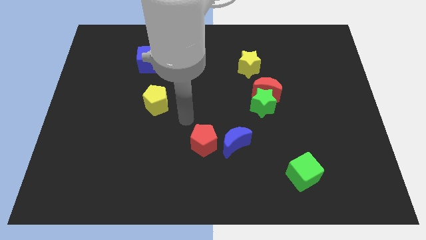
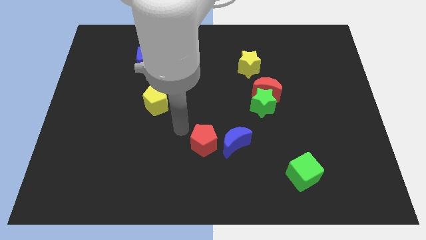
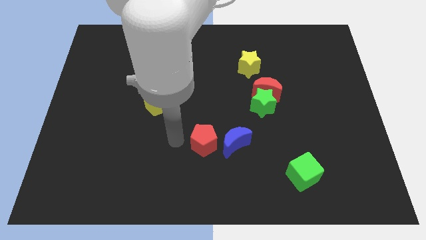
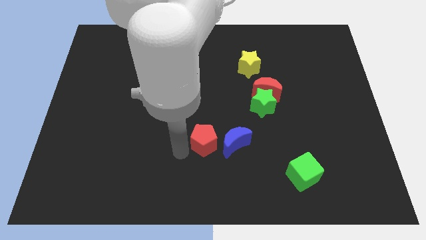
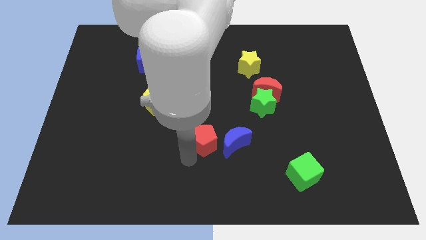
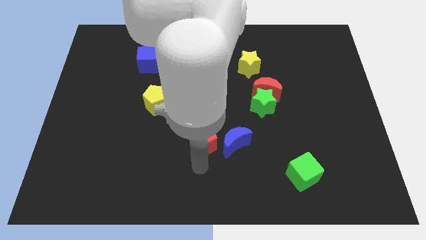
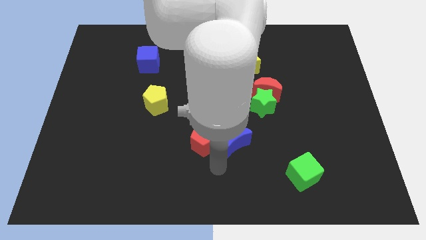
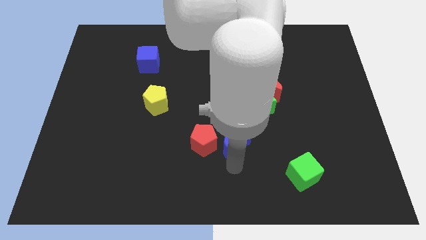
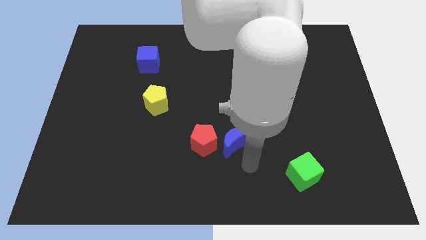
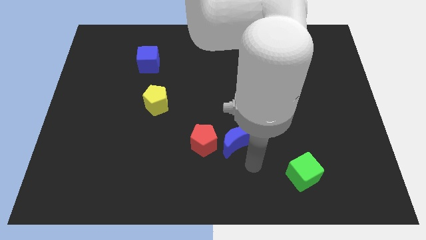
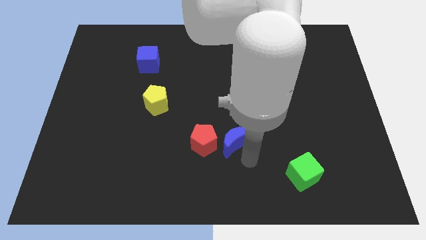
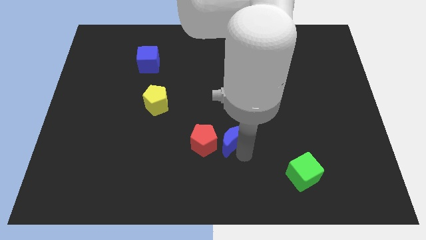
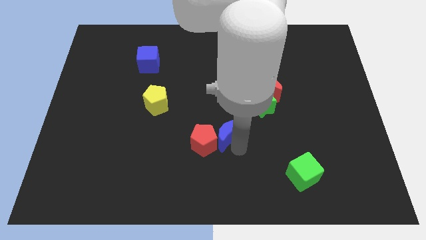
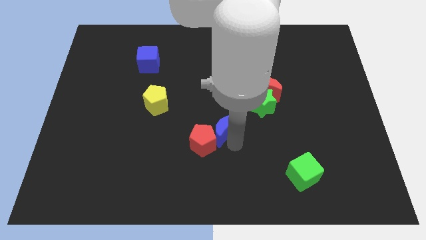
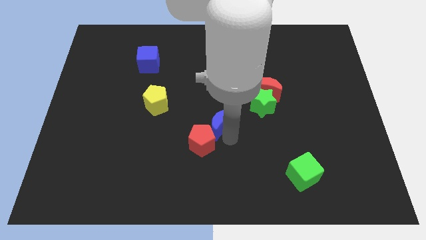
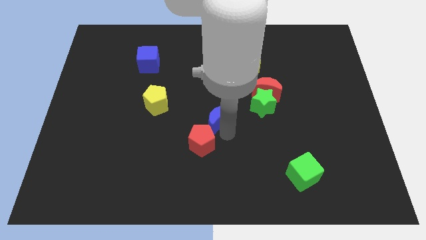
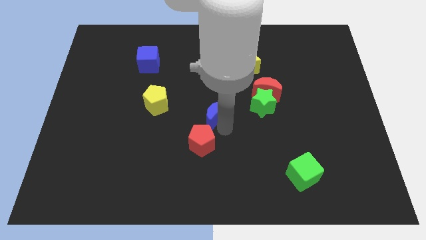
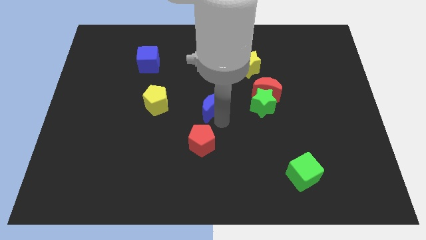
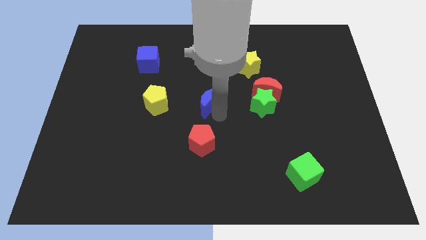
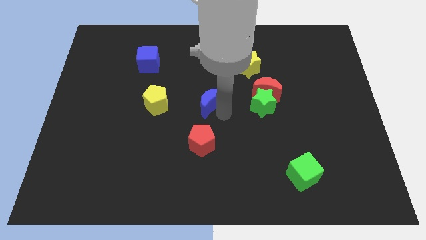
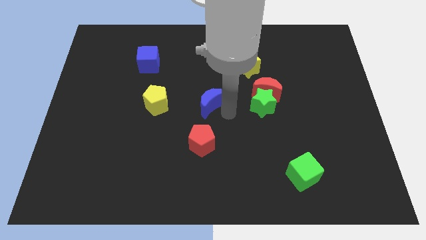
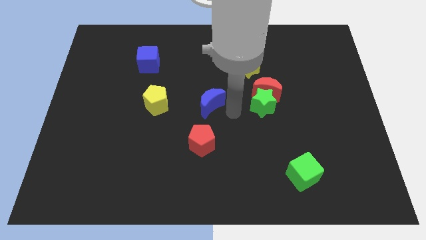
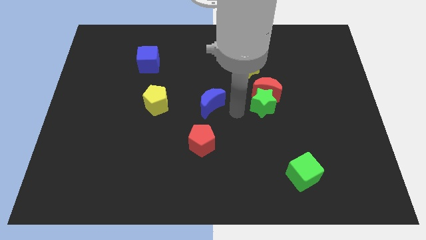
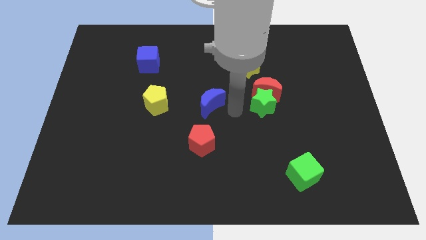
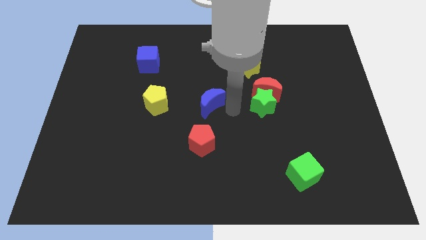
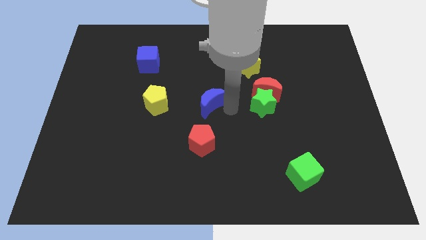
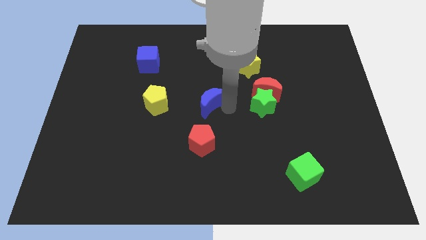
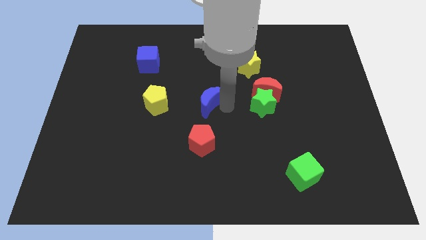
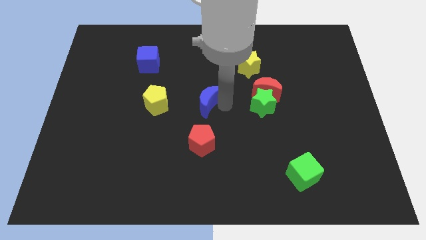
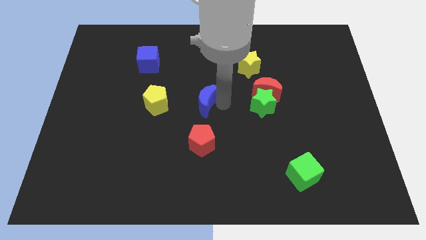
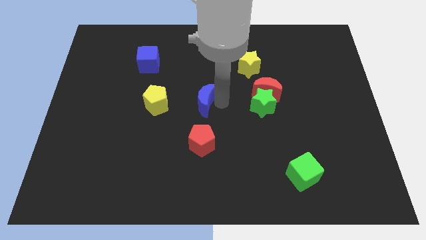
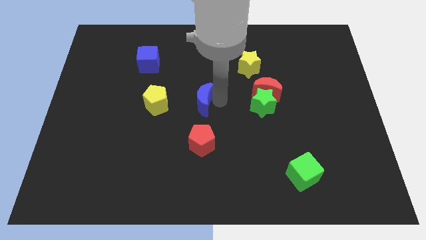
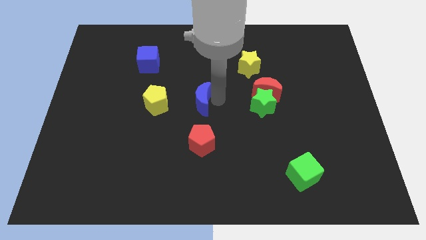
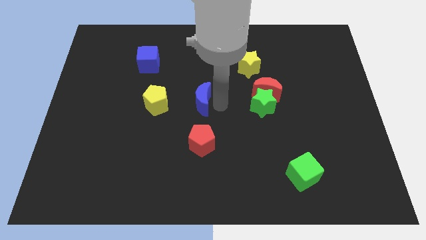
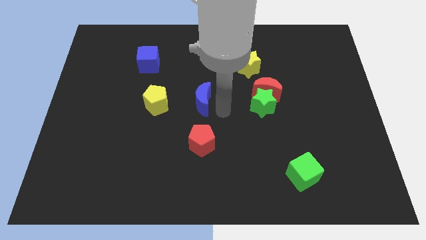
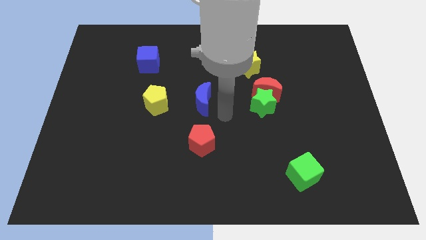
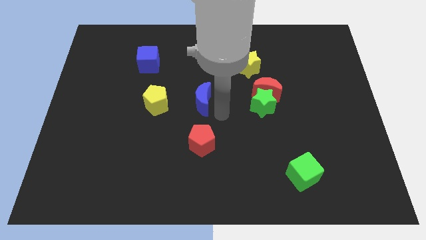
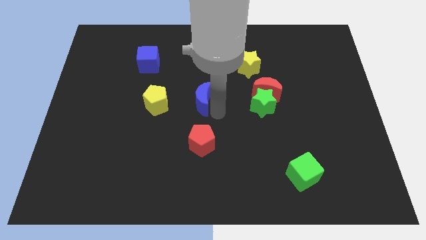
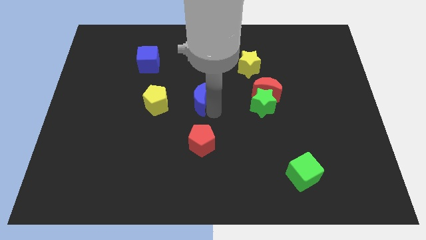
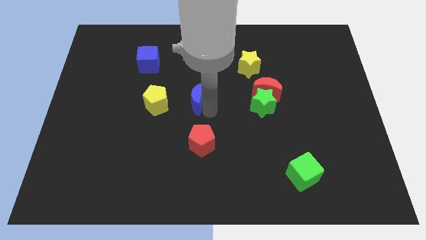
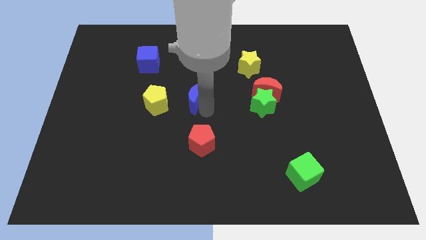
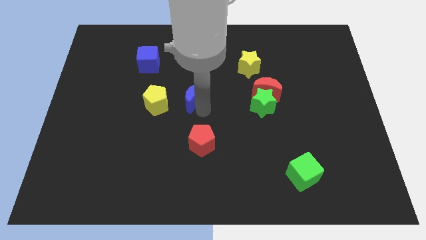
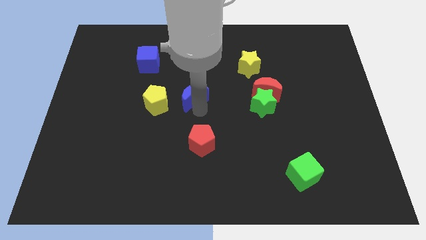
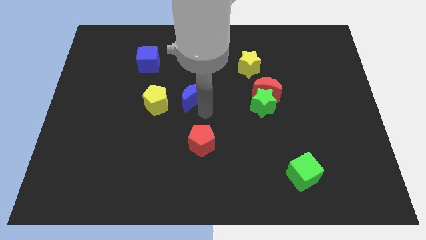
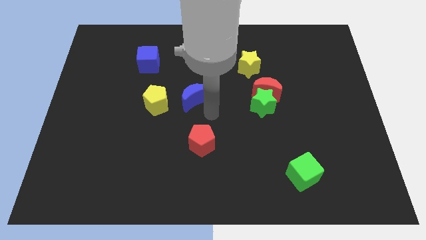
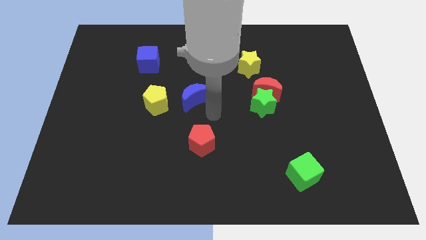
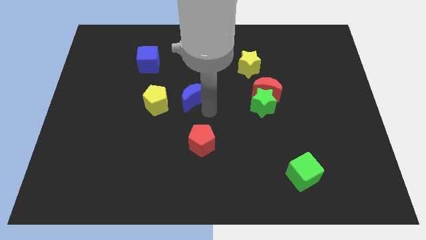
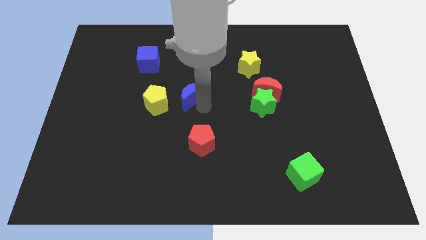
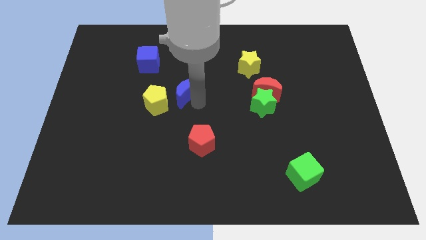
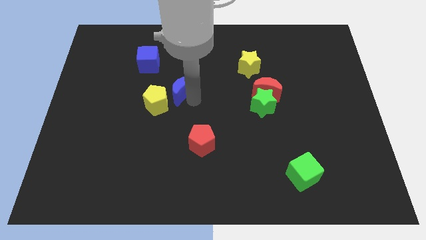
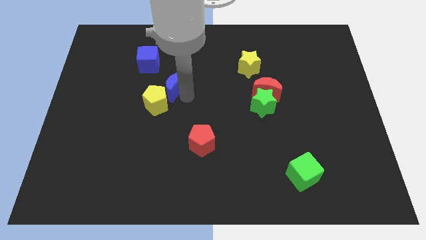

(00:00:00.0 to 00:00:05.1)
slide the blue moon to the top of the yellow pentagon
